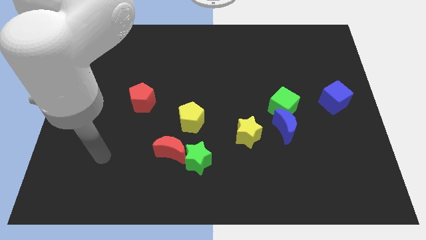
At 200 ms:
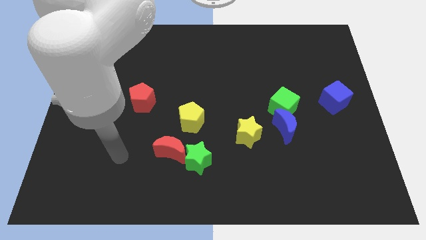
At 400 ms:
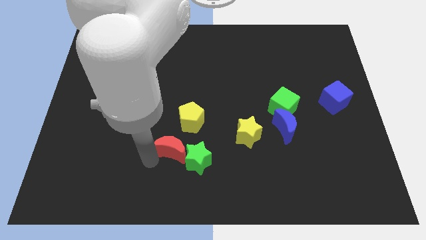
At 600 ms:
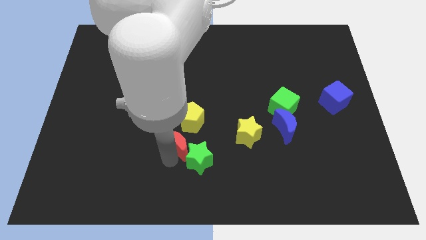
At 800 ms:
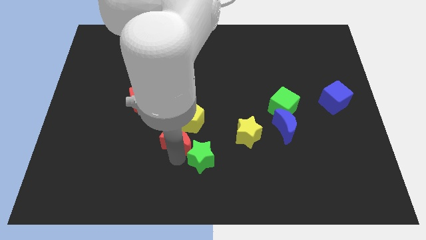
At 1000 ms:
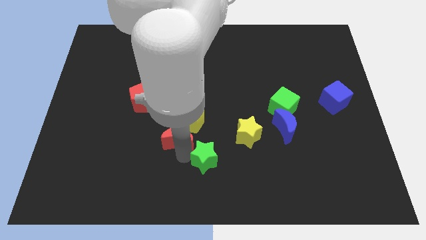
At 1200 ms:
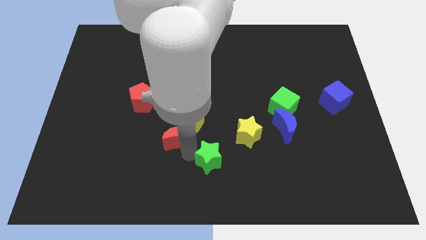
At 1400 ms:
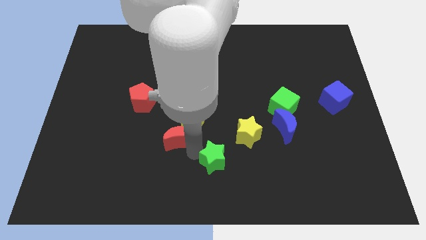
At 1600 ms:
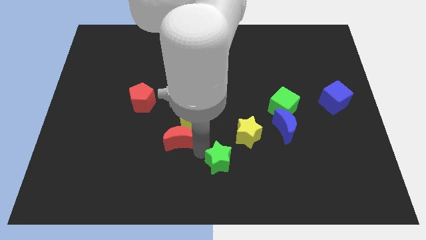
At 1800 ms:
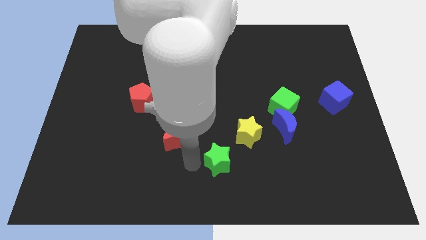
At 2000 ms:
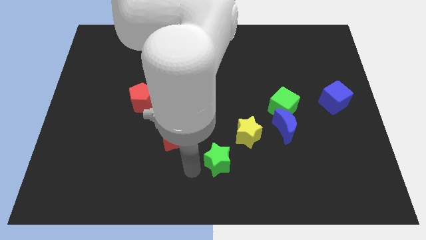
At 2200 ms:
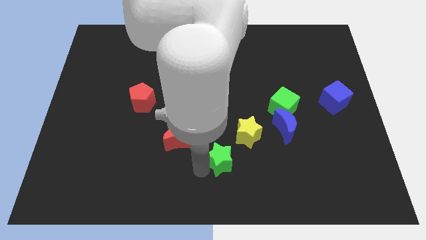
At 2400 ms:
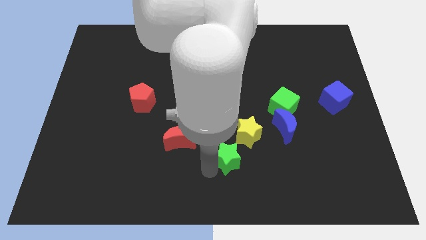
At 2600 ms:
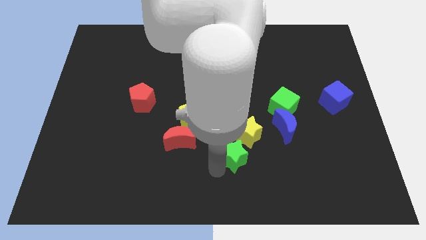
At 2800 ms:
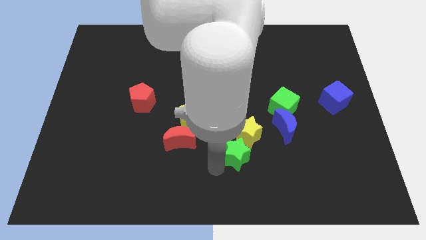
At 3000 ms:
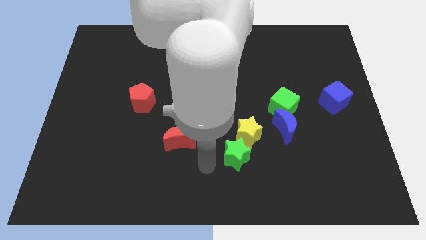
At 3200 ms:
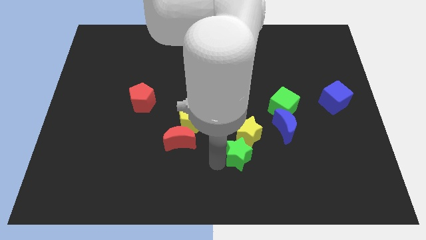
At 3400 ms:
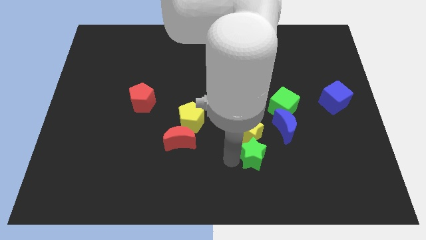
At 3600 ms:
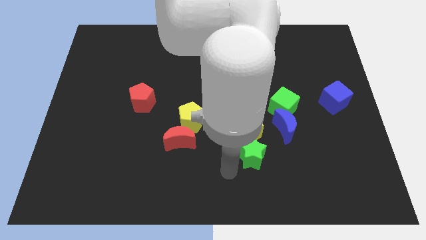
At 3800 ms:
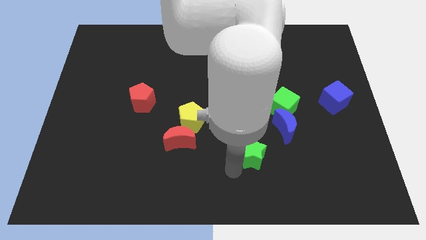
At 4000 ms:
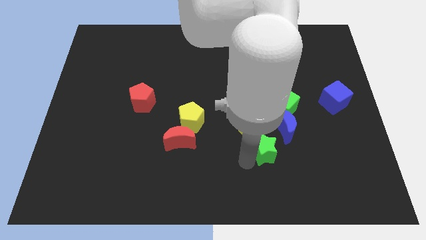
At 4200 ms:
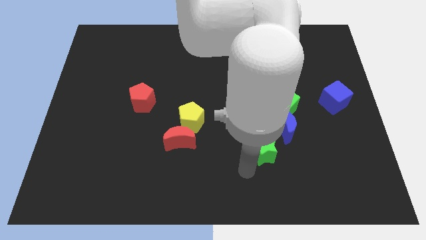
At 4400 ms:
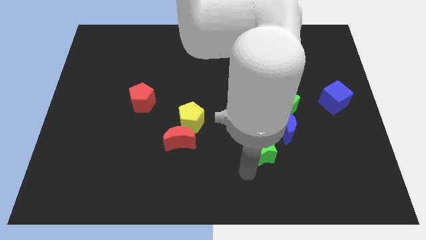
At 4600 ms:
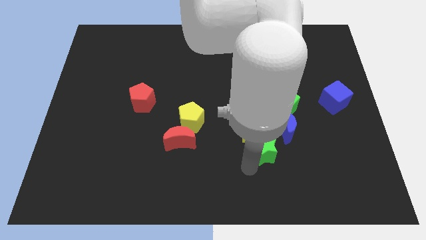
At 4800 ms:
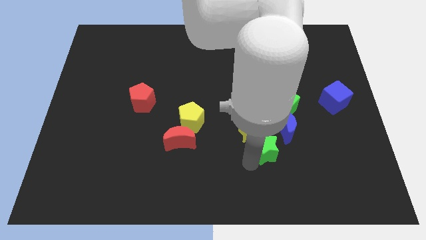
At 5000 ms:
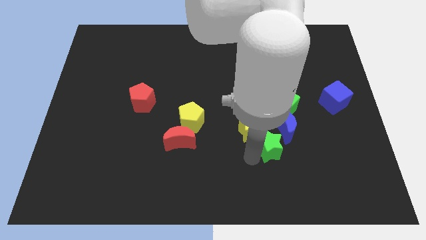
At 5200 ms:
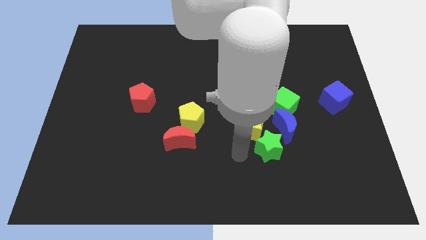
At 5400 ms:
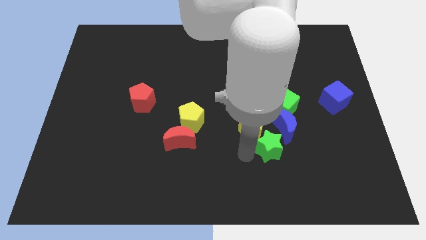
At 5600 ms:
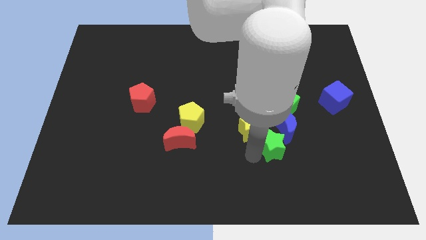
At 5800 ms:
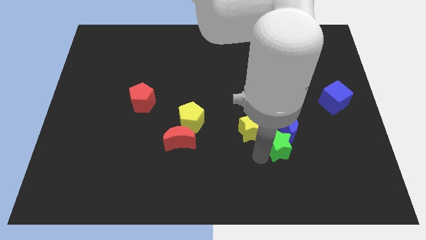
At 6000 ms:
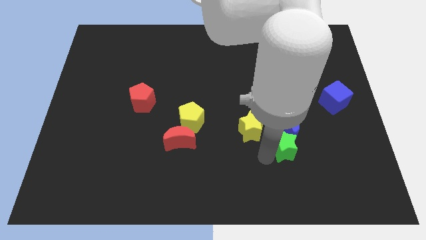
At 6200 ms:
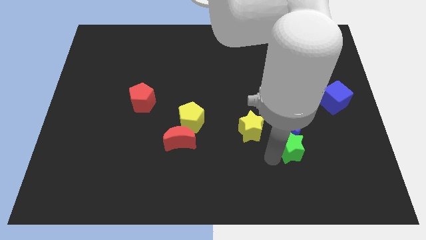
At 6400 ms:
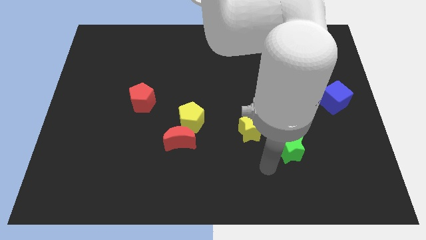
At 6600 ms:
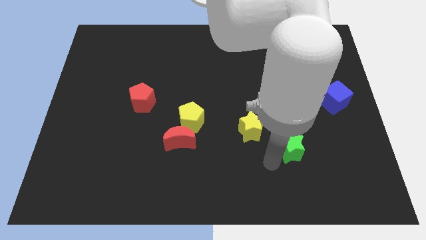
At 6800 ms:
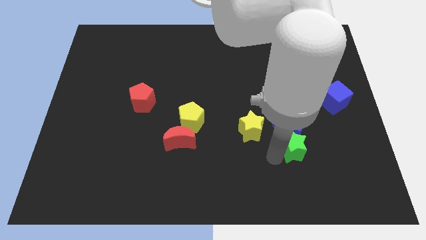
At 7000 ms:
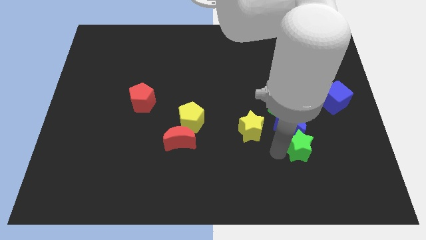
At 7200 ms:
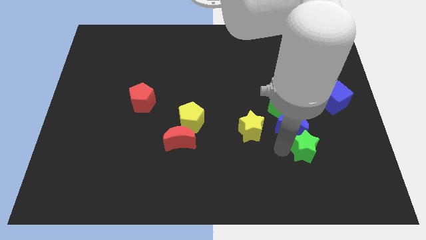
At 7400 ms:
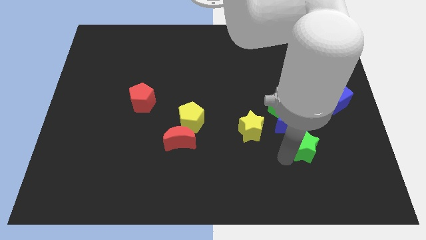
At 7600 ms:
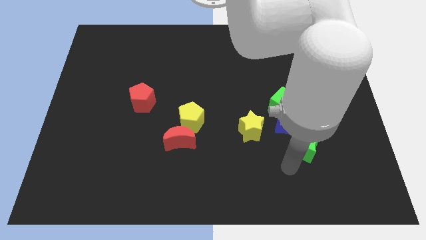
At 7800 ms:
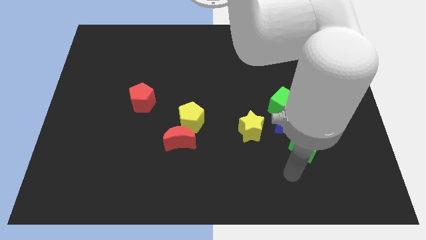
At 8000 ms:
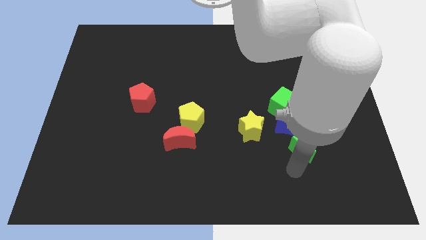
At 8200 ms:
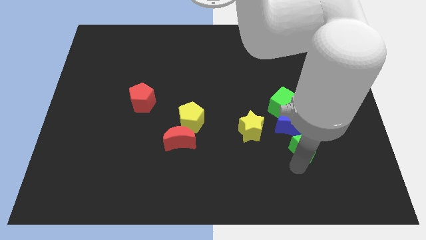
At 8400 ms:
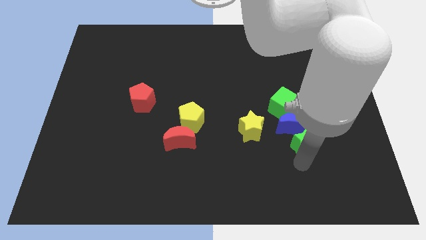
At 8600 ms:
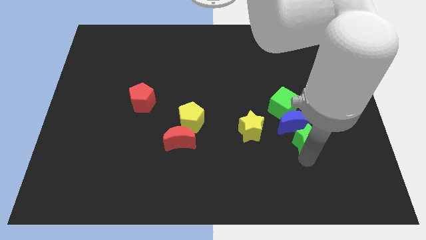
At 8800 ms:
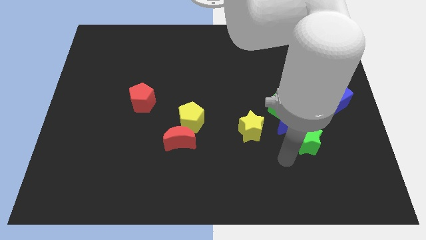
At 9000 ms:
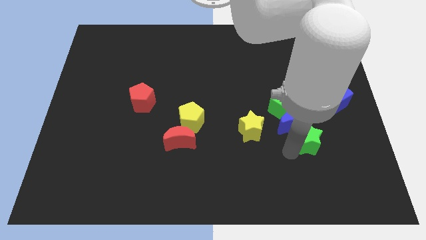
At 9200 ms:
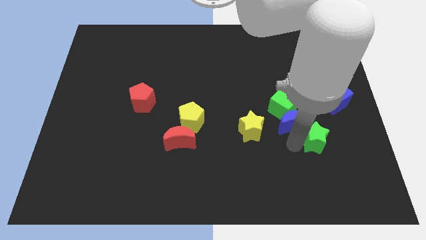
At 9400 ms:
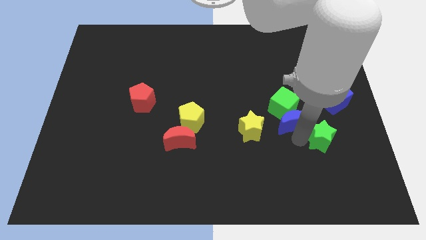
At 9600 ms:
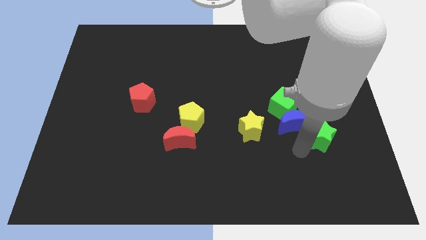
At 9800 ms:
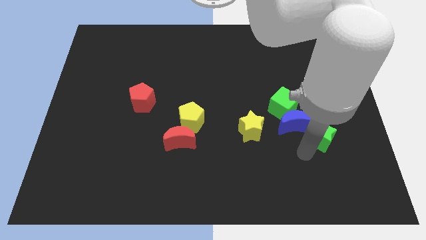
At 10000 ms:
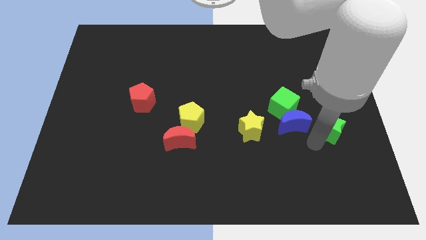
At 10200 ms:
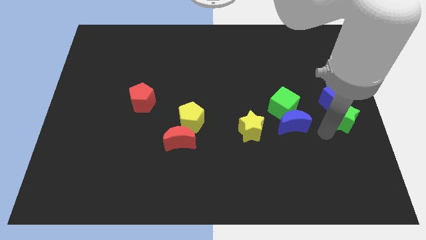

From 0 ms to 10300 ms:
put the green star to the right side of the board

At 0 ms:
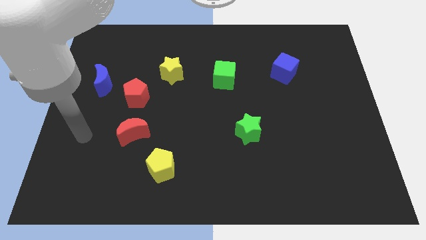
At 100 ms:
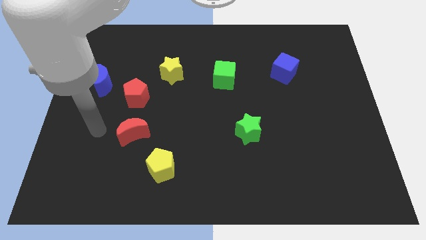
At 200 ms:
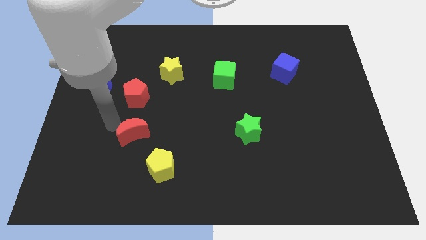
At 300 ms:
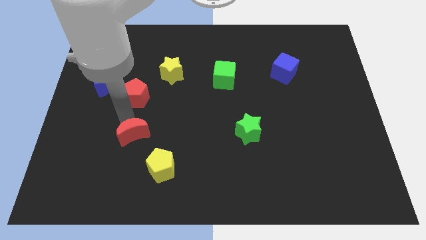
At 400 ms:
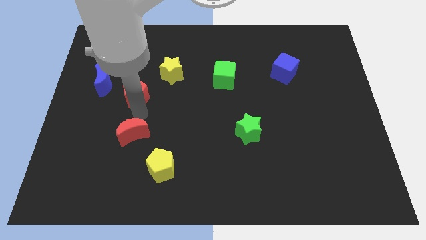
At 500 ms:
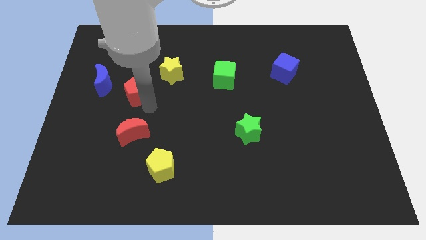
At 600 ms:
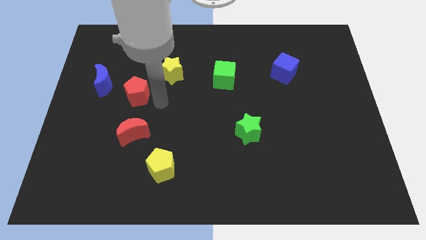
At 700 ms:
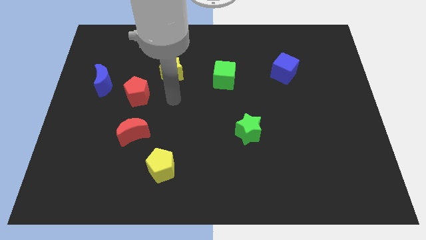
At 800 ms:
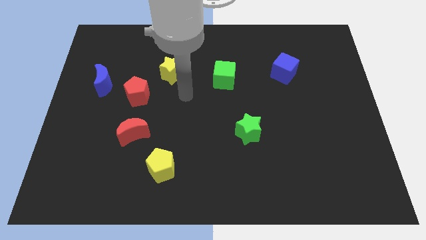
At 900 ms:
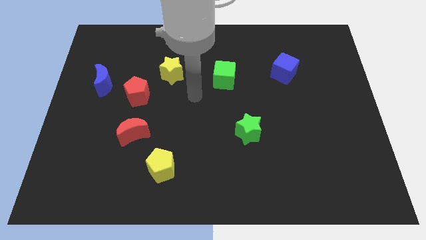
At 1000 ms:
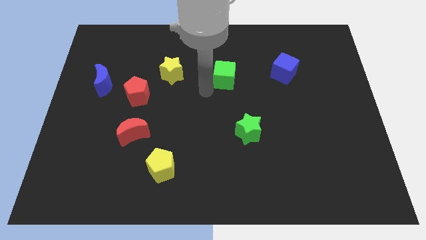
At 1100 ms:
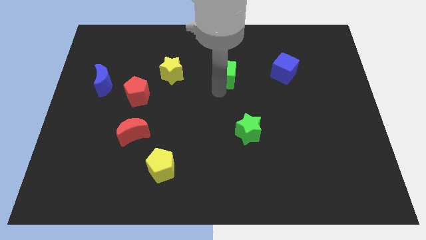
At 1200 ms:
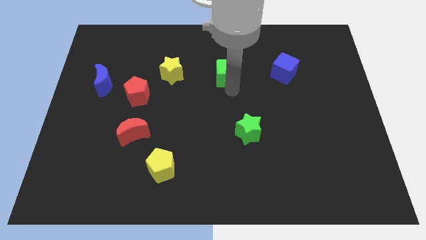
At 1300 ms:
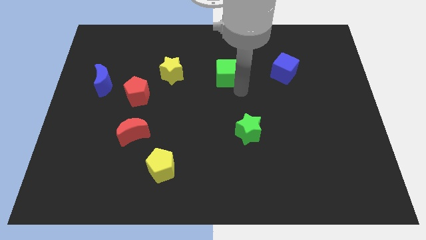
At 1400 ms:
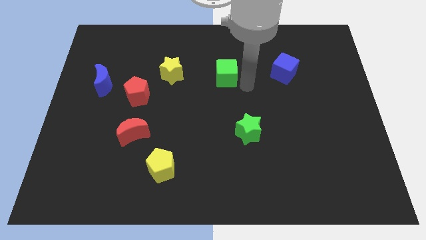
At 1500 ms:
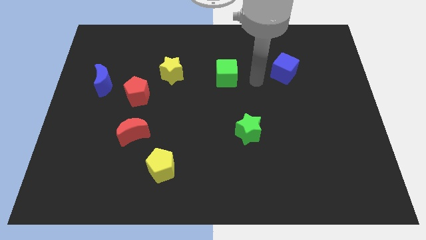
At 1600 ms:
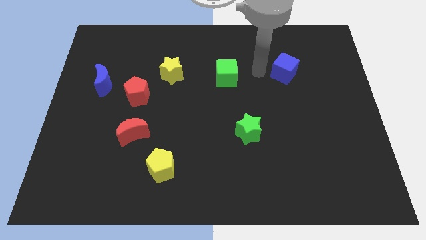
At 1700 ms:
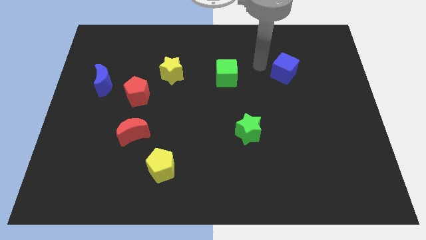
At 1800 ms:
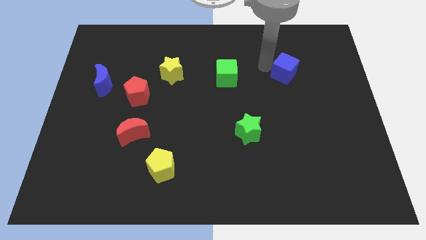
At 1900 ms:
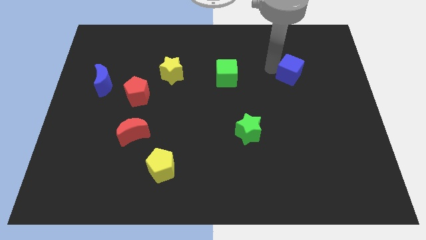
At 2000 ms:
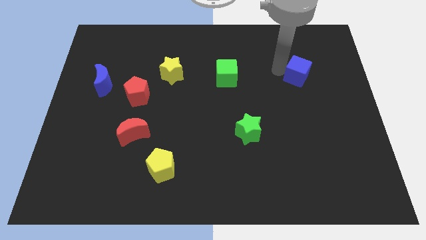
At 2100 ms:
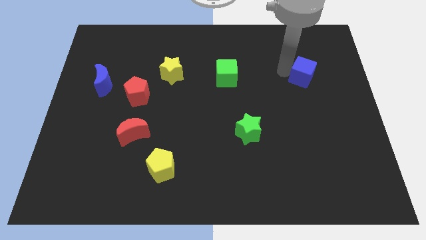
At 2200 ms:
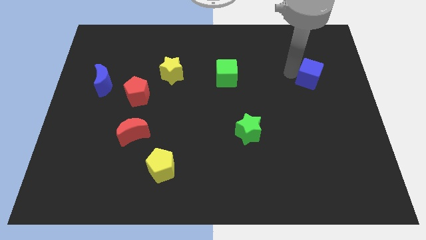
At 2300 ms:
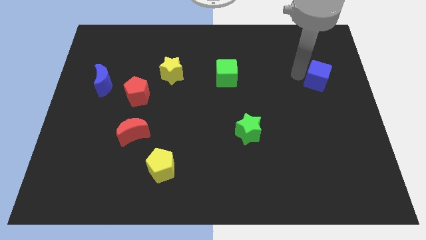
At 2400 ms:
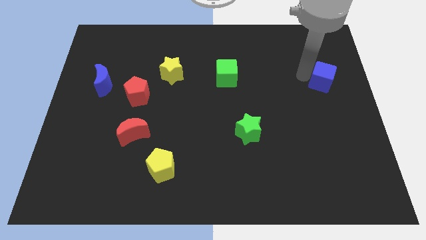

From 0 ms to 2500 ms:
push the blue cube to the center right
